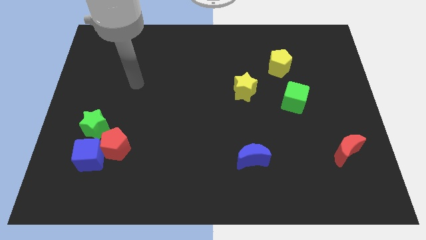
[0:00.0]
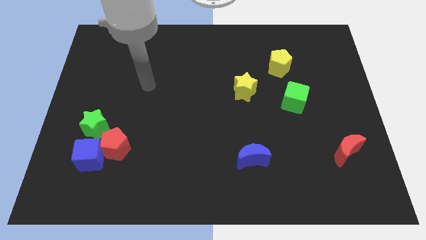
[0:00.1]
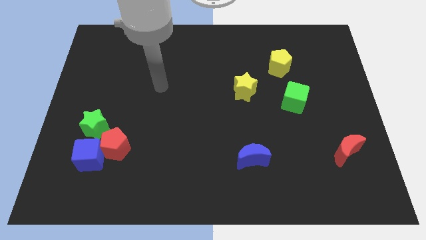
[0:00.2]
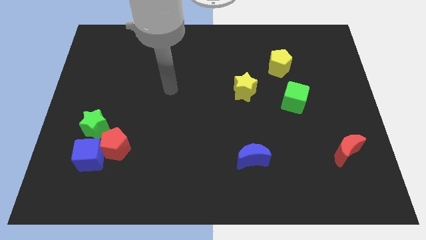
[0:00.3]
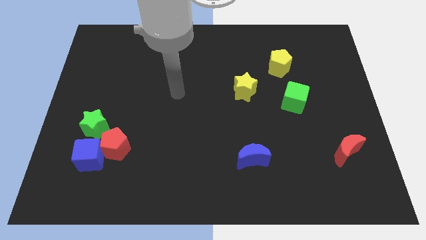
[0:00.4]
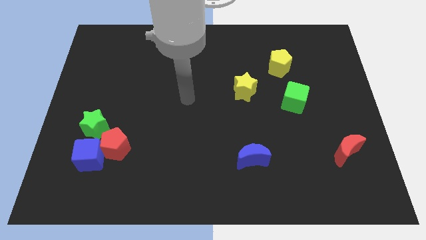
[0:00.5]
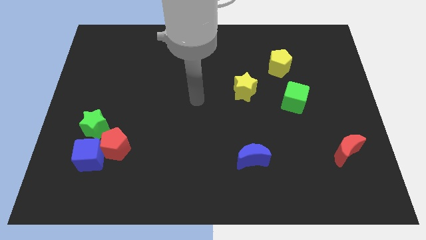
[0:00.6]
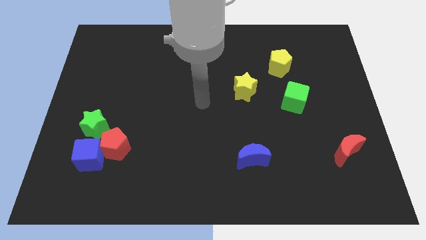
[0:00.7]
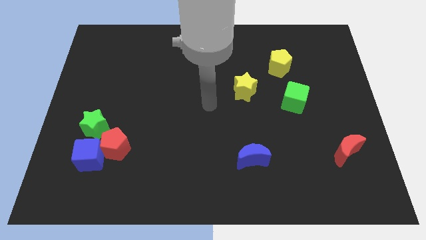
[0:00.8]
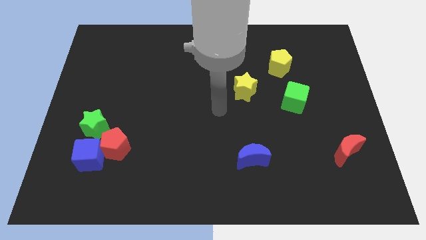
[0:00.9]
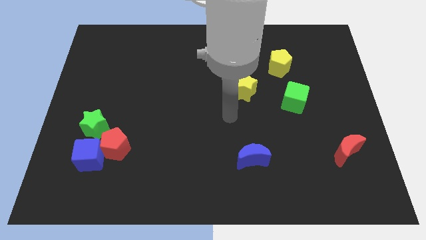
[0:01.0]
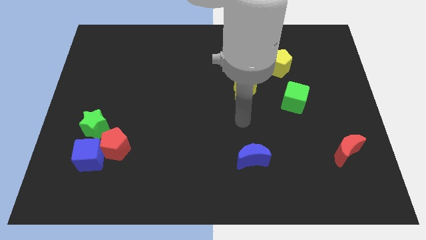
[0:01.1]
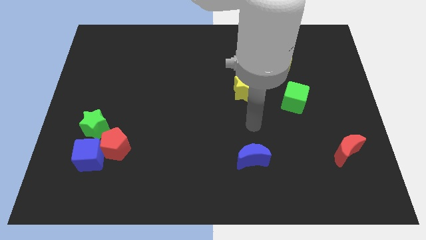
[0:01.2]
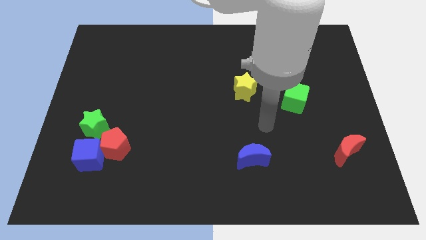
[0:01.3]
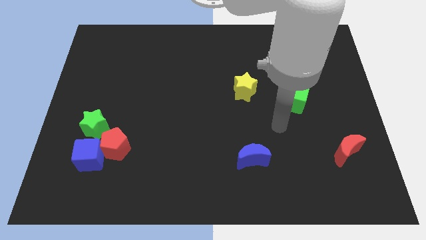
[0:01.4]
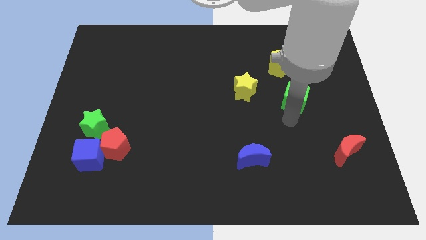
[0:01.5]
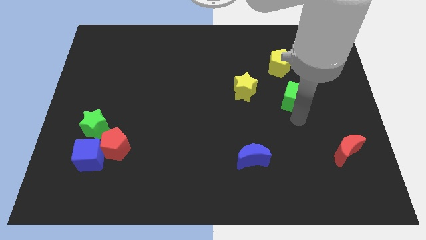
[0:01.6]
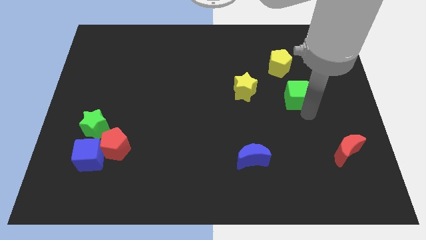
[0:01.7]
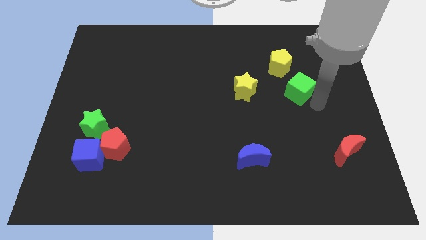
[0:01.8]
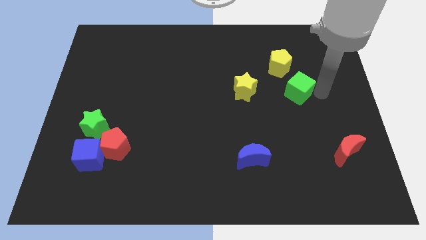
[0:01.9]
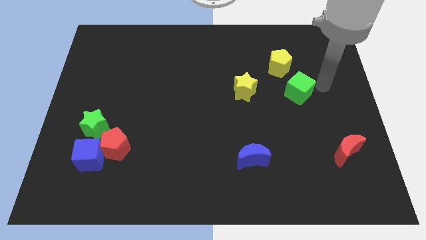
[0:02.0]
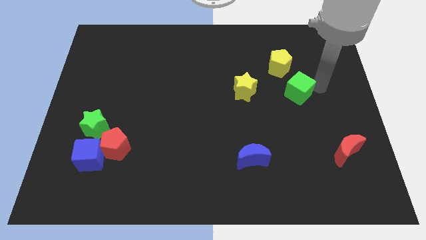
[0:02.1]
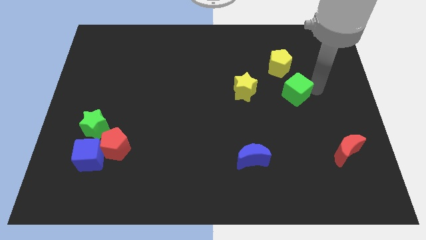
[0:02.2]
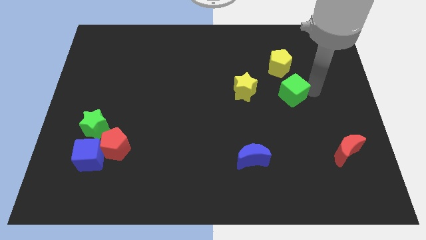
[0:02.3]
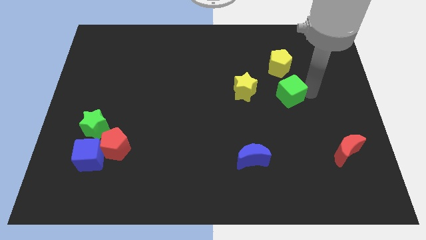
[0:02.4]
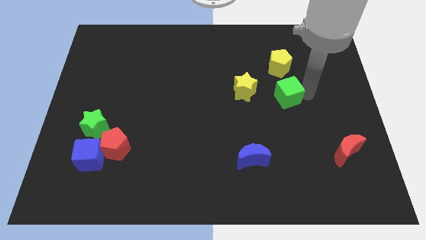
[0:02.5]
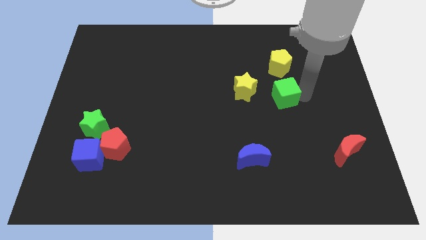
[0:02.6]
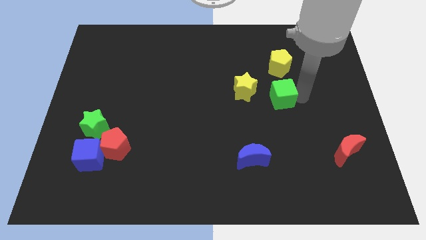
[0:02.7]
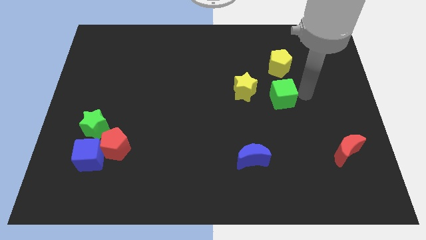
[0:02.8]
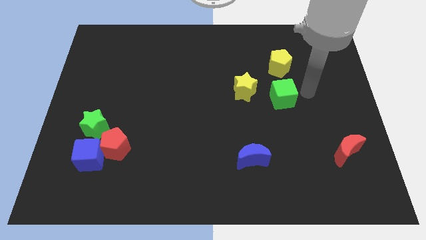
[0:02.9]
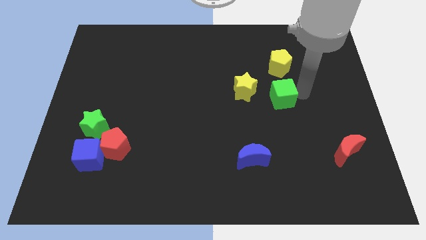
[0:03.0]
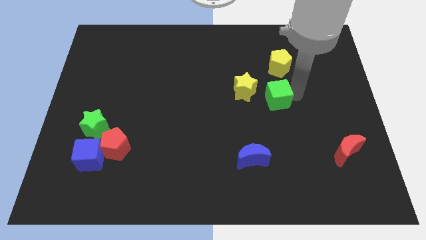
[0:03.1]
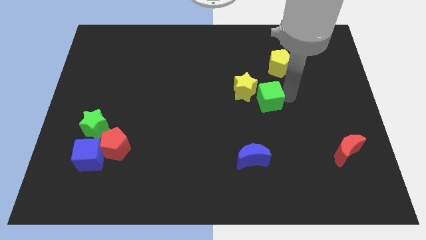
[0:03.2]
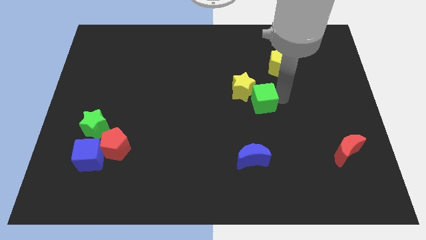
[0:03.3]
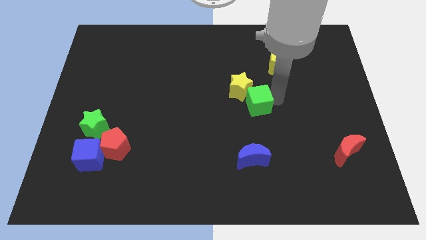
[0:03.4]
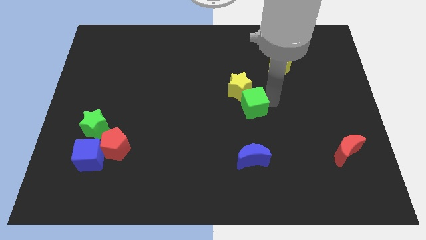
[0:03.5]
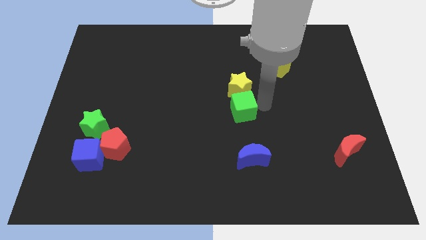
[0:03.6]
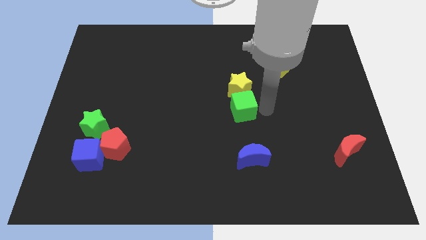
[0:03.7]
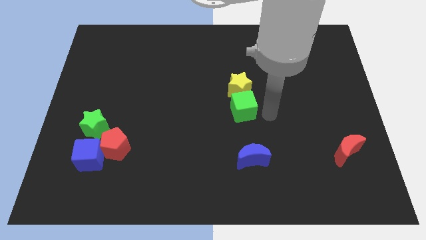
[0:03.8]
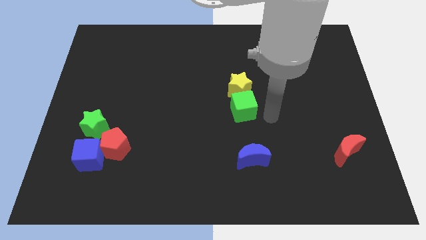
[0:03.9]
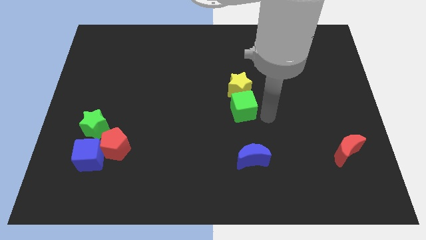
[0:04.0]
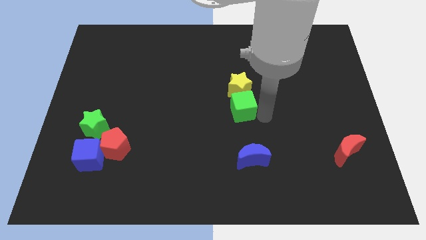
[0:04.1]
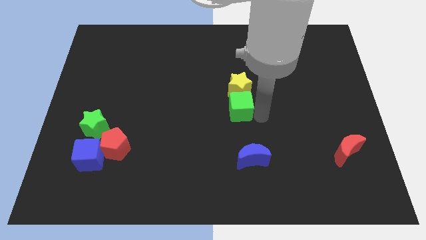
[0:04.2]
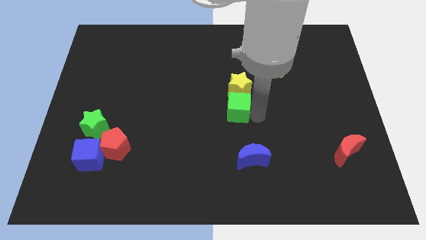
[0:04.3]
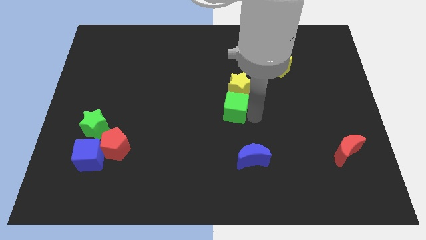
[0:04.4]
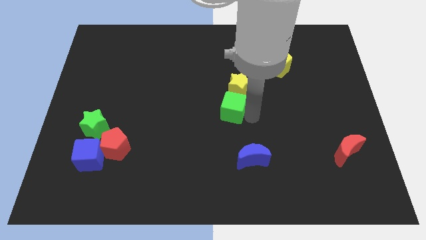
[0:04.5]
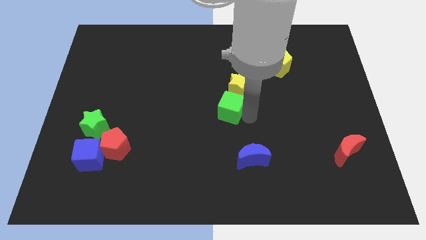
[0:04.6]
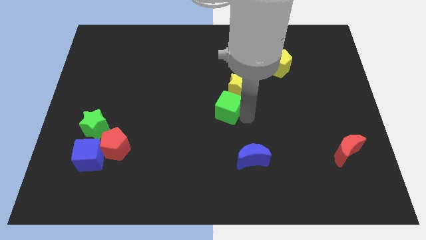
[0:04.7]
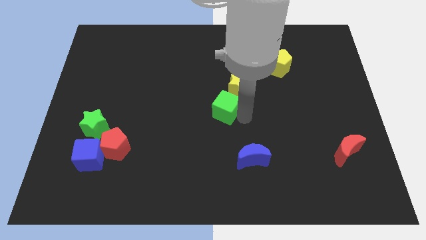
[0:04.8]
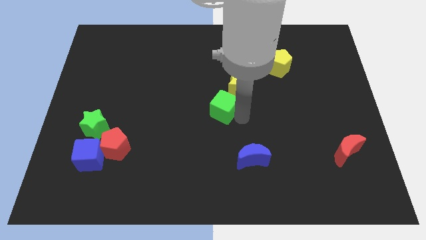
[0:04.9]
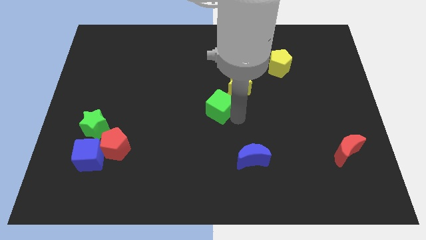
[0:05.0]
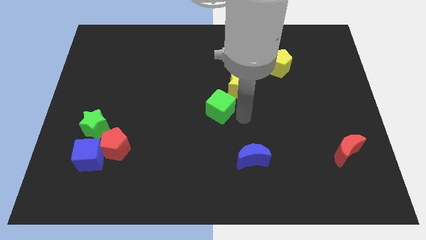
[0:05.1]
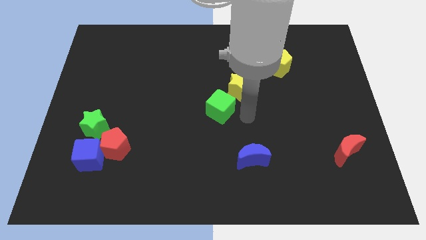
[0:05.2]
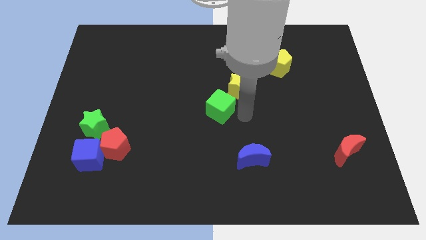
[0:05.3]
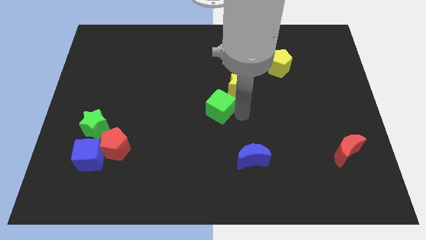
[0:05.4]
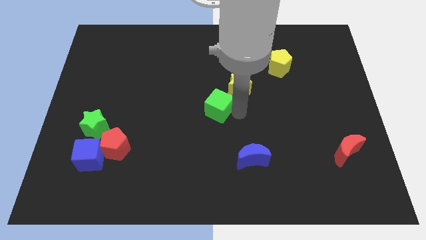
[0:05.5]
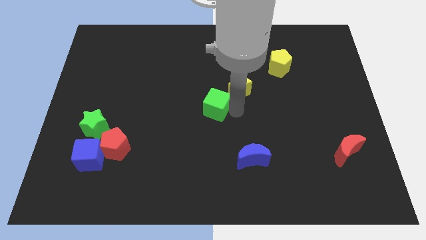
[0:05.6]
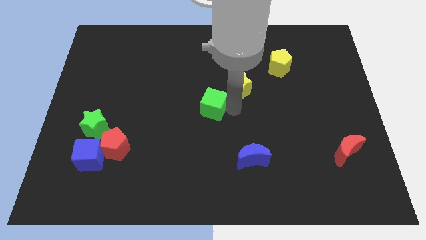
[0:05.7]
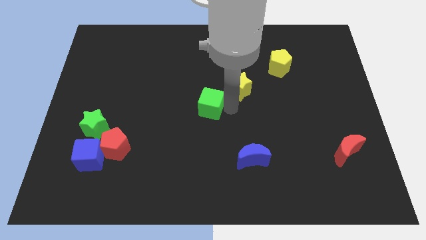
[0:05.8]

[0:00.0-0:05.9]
move the green cube left

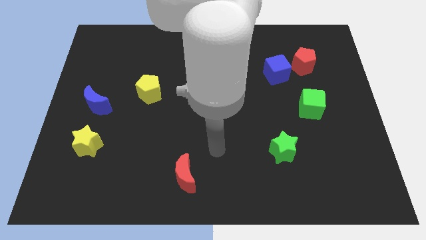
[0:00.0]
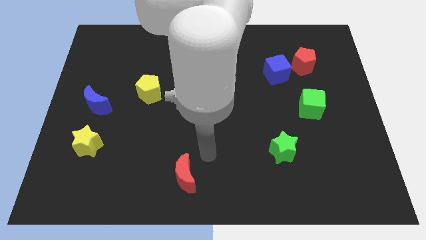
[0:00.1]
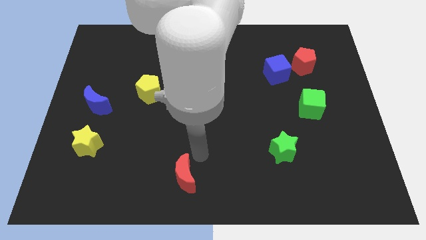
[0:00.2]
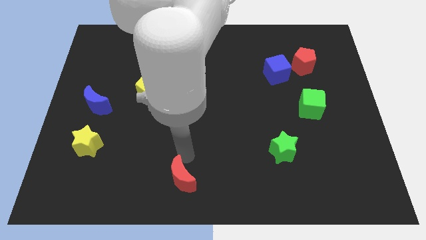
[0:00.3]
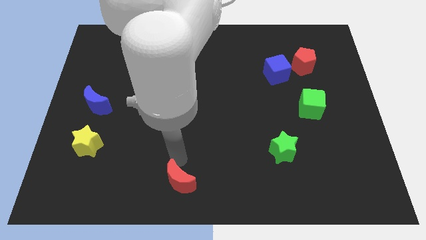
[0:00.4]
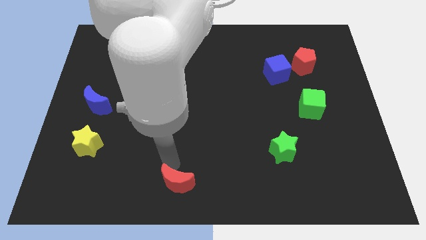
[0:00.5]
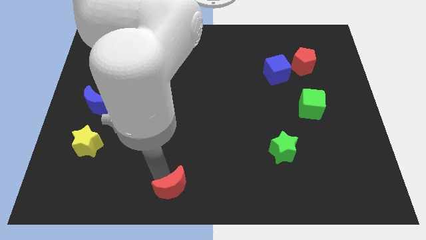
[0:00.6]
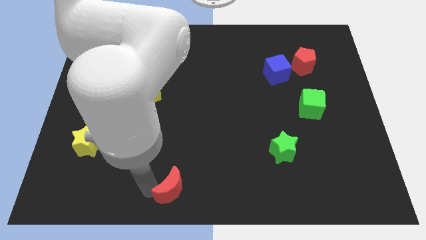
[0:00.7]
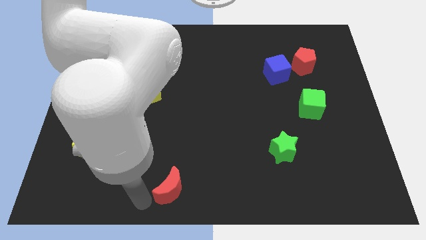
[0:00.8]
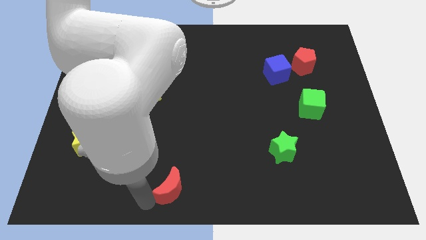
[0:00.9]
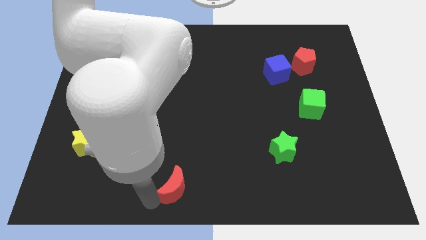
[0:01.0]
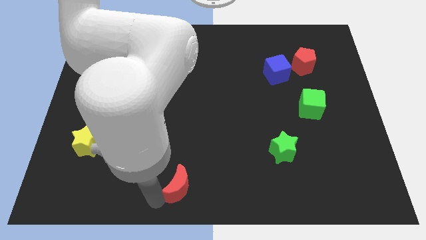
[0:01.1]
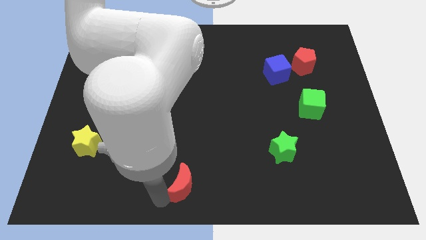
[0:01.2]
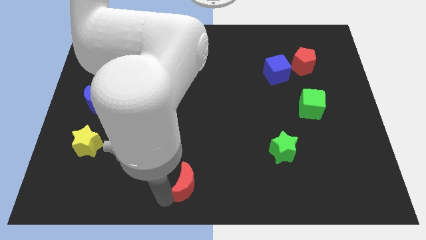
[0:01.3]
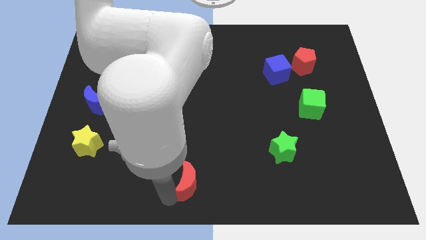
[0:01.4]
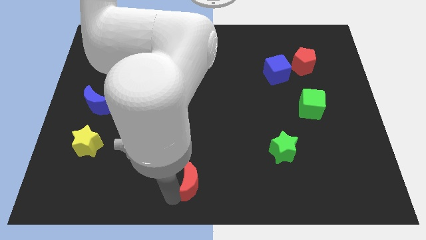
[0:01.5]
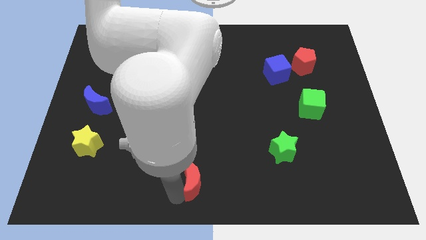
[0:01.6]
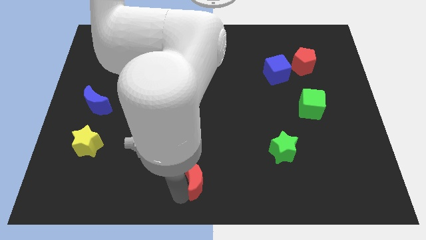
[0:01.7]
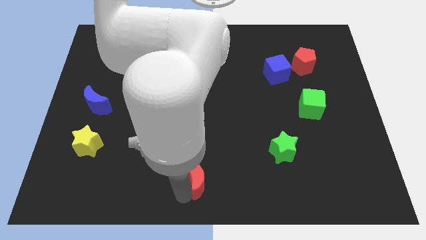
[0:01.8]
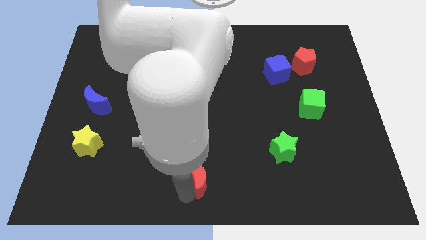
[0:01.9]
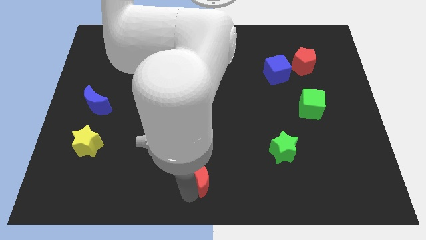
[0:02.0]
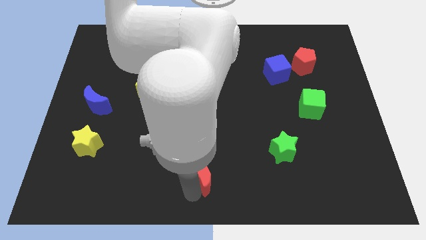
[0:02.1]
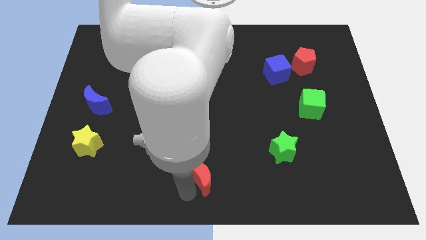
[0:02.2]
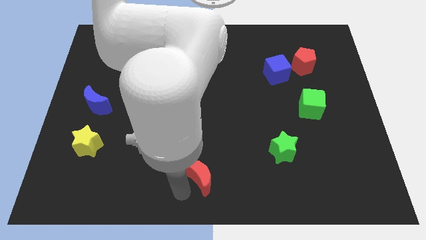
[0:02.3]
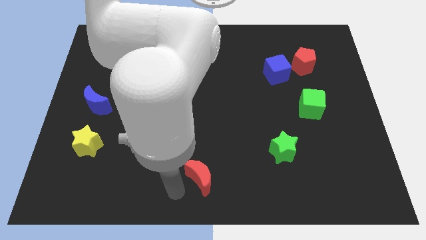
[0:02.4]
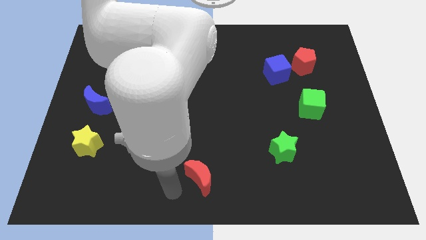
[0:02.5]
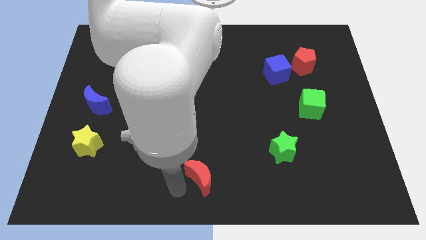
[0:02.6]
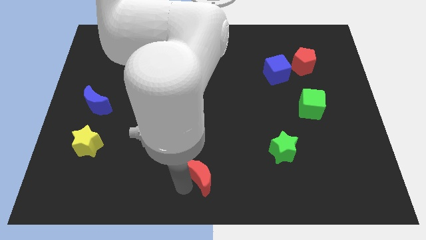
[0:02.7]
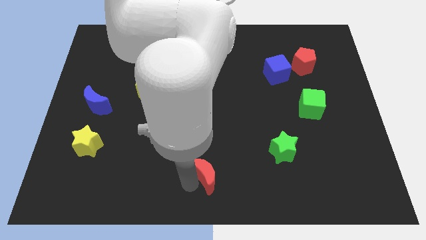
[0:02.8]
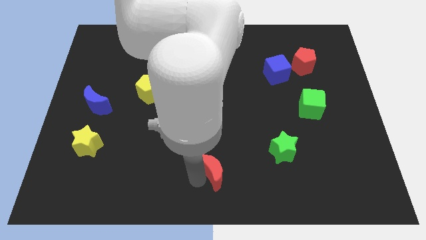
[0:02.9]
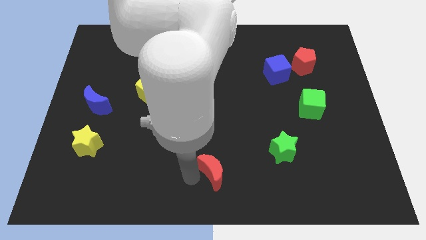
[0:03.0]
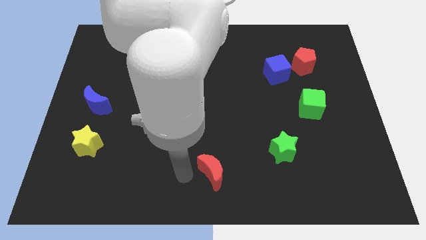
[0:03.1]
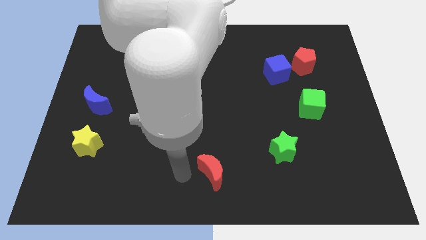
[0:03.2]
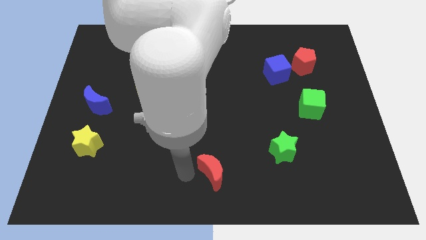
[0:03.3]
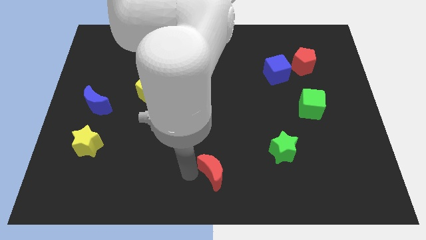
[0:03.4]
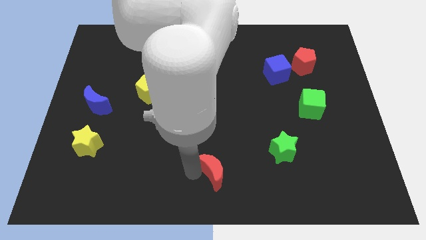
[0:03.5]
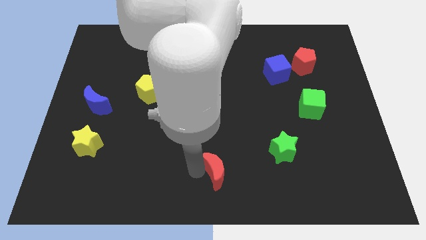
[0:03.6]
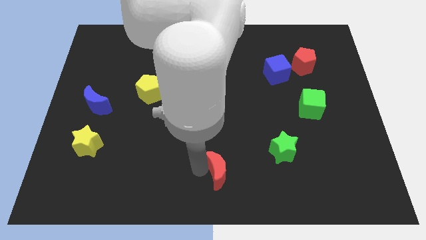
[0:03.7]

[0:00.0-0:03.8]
slide the red moon right slightly
